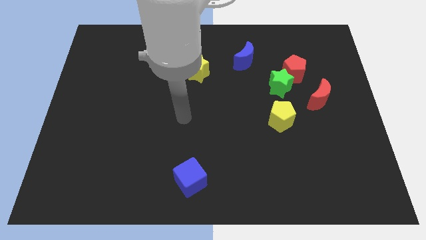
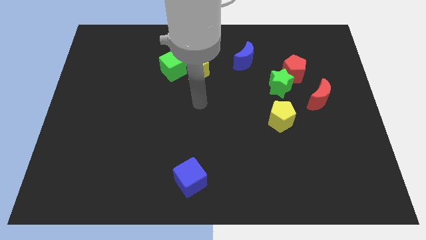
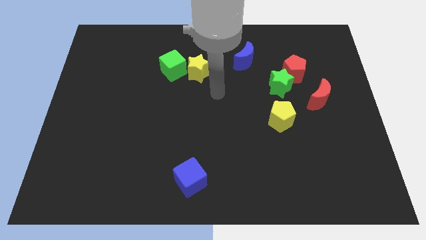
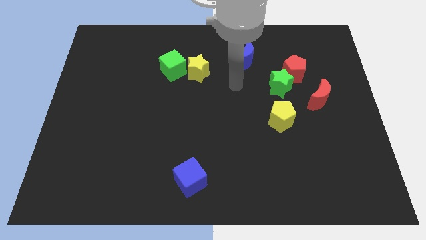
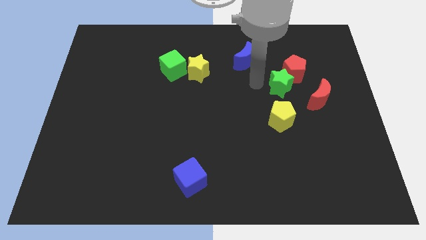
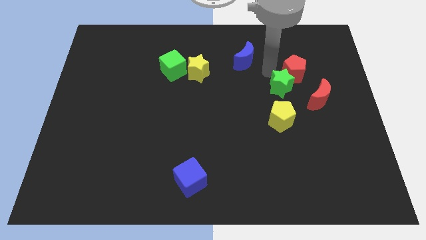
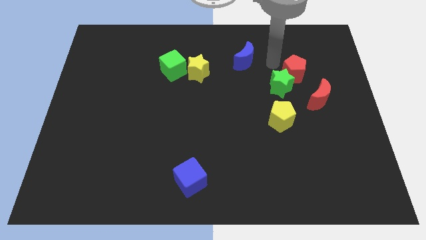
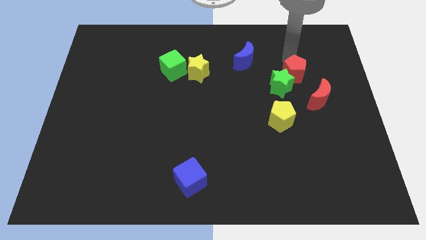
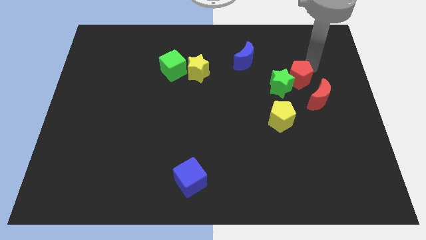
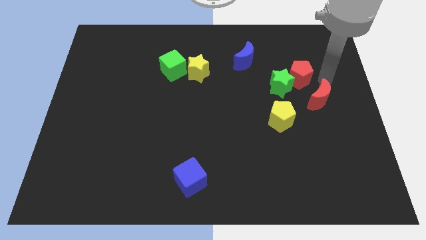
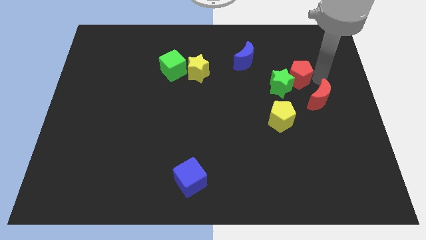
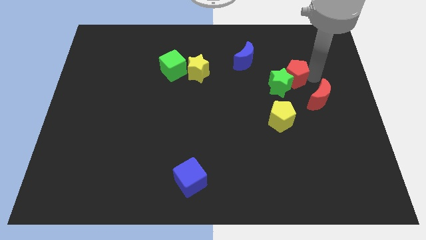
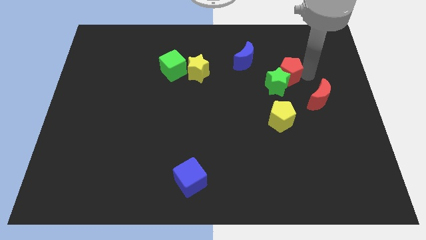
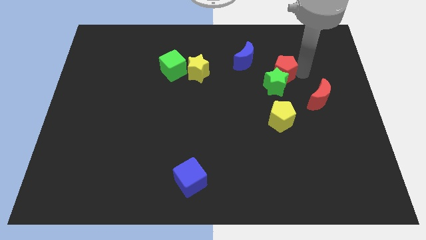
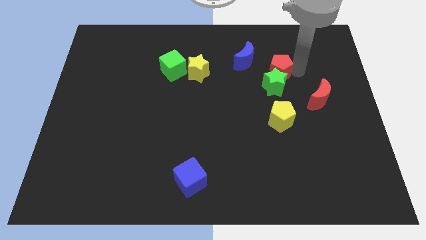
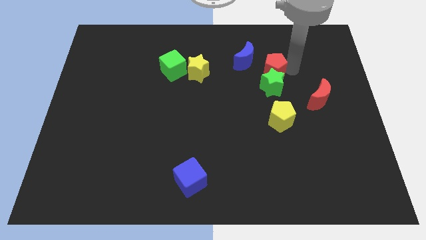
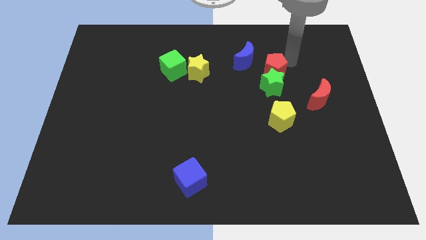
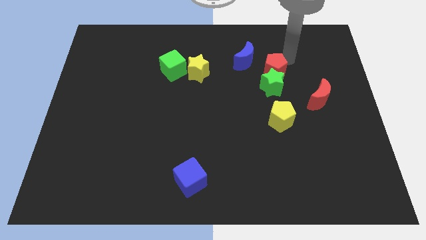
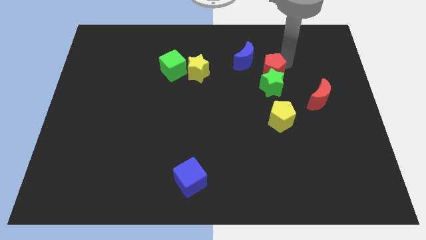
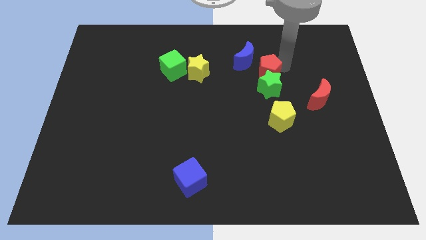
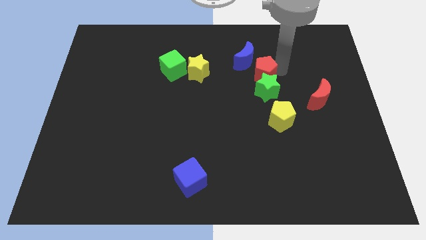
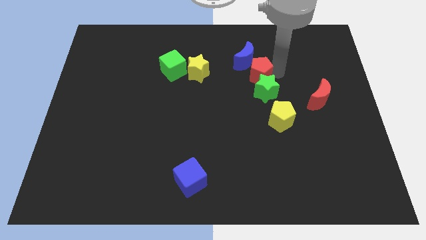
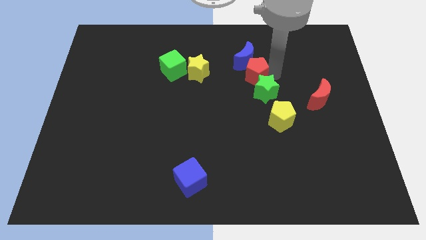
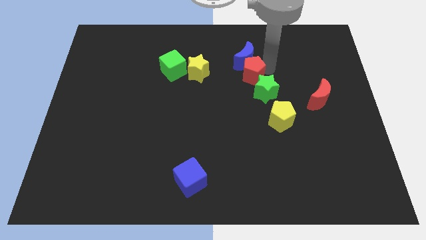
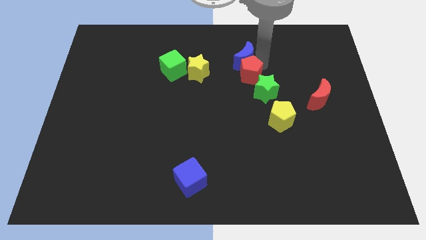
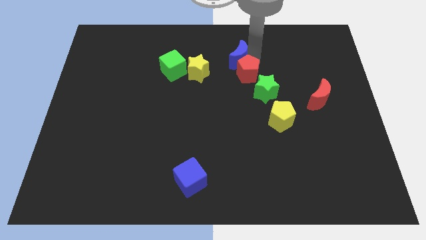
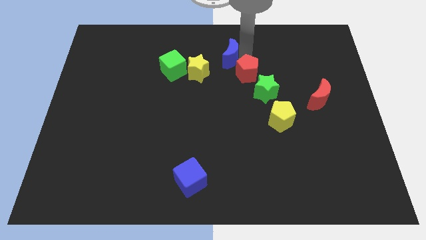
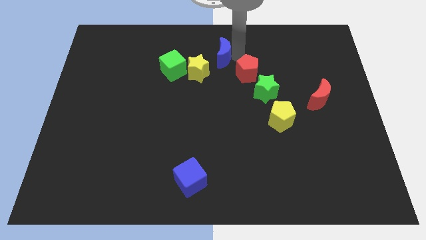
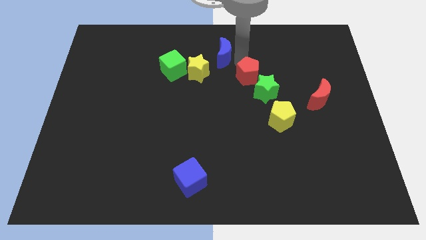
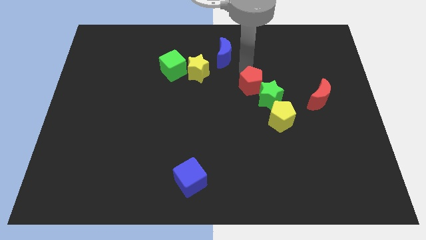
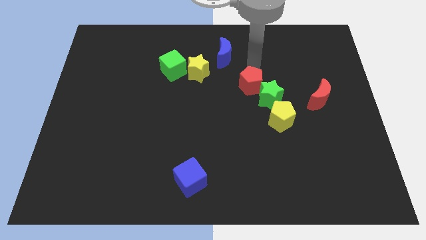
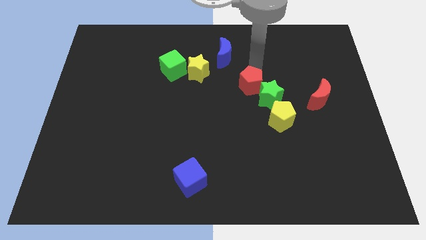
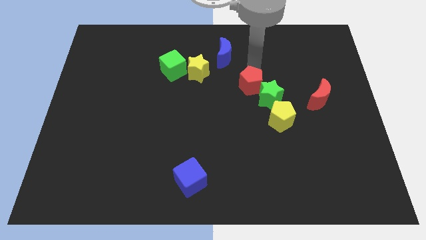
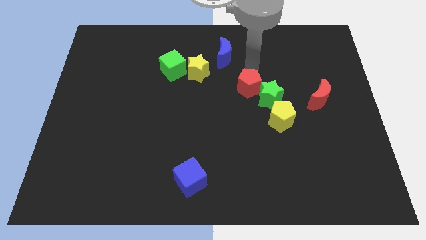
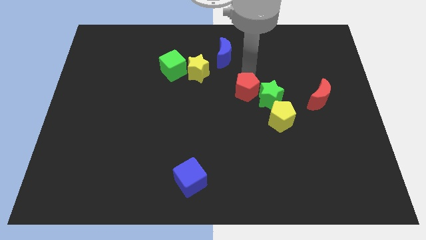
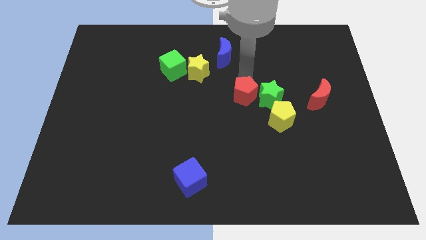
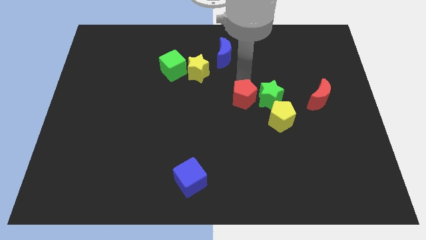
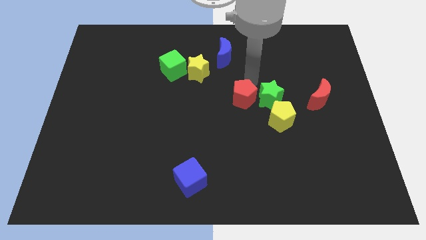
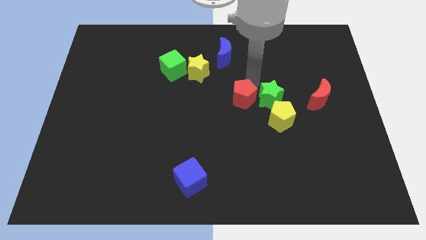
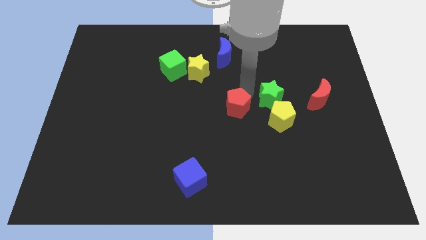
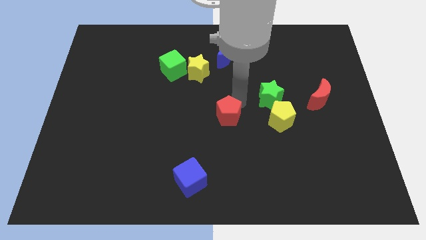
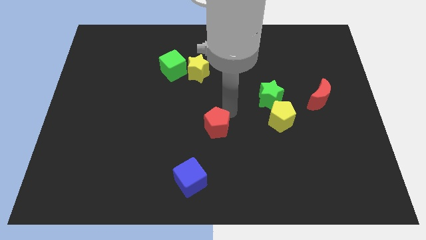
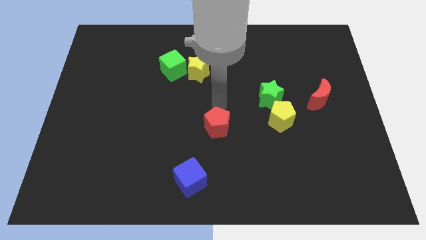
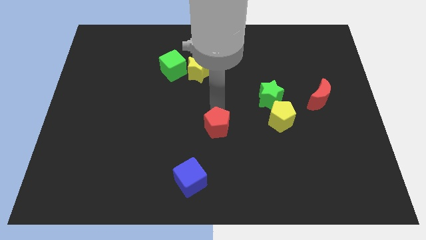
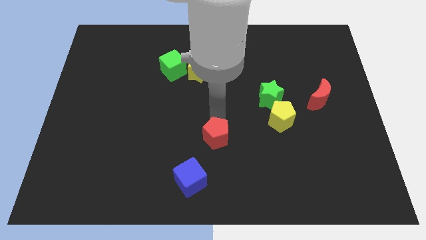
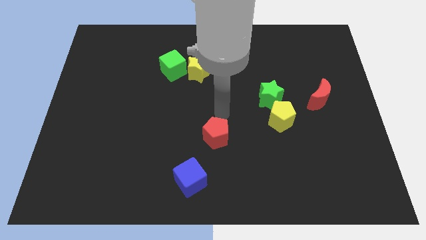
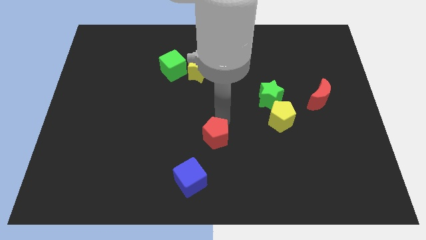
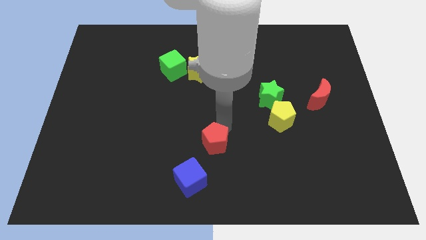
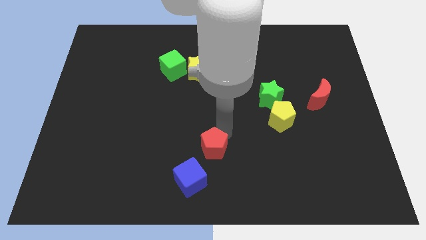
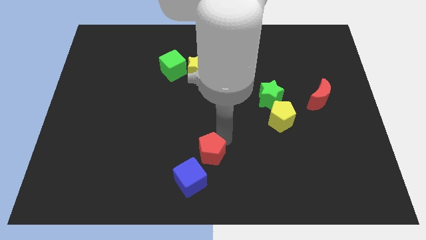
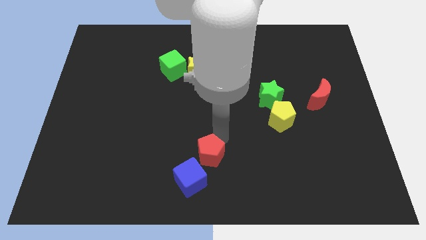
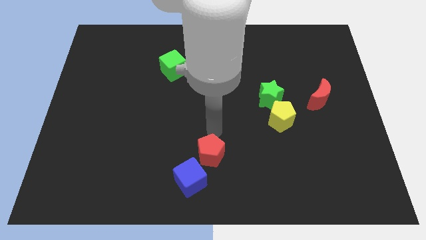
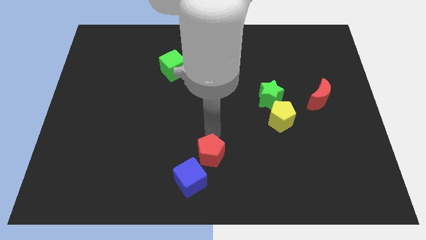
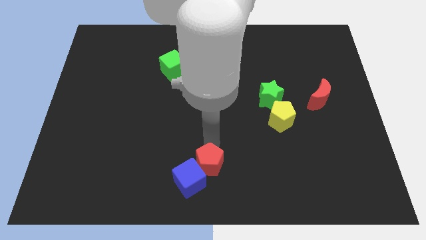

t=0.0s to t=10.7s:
move the red pentagon towards the blue cube

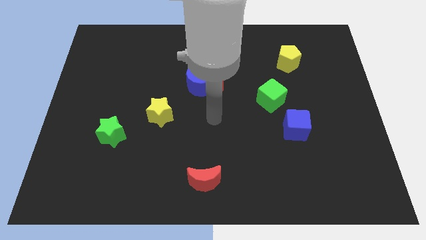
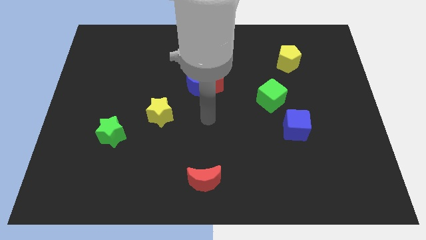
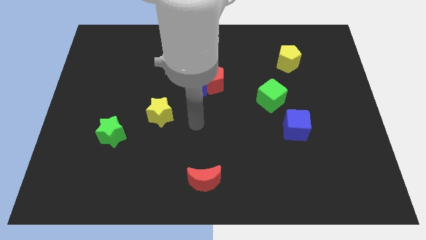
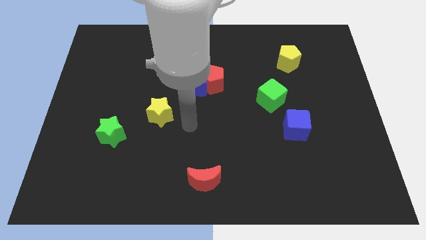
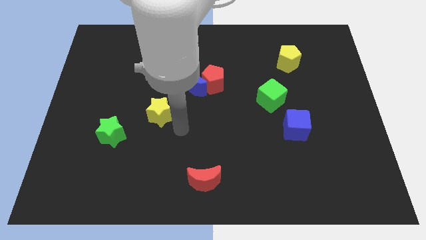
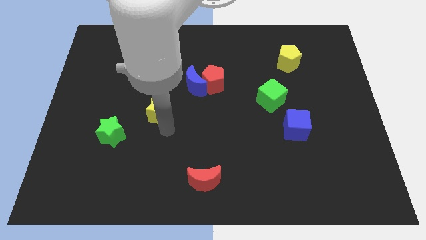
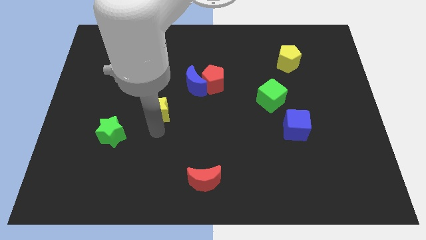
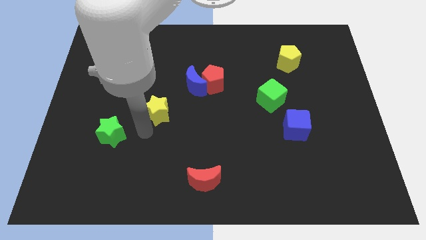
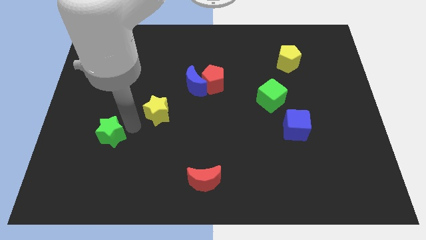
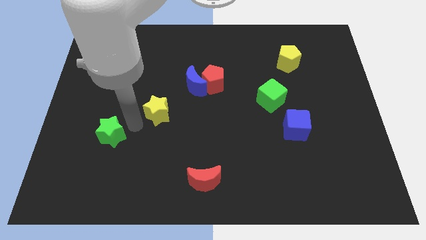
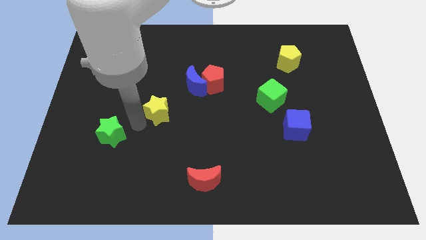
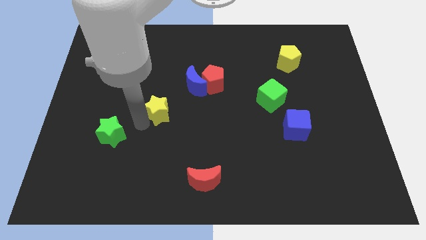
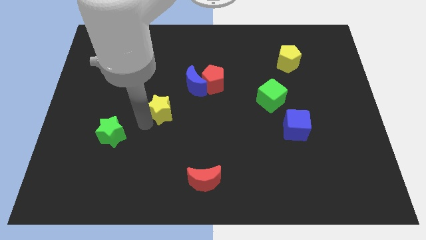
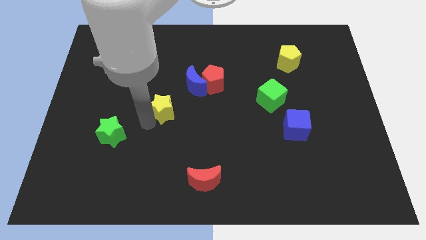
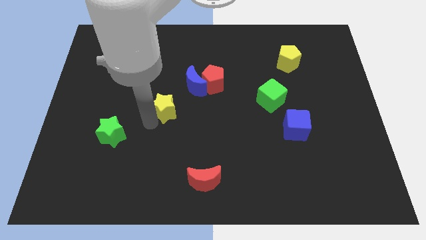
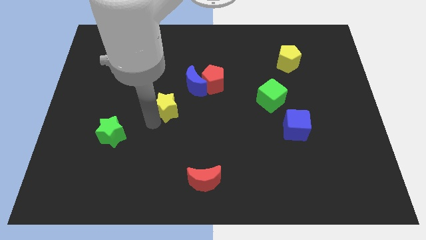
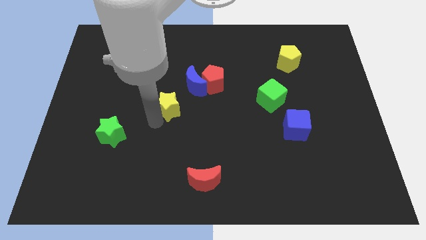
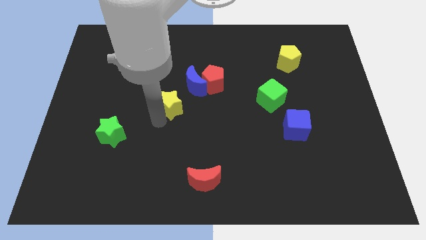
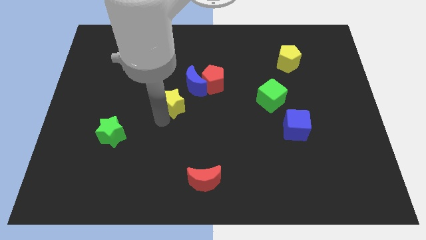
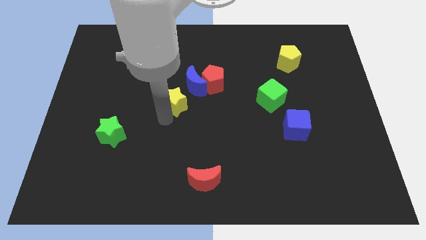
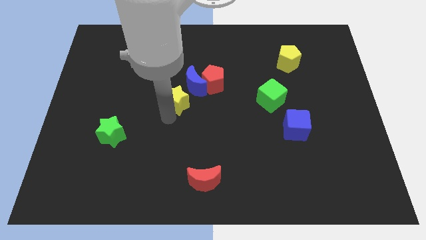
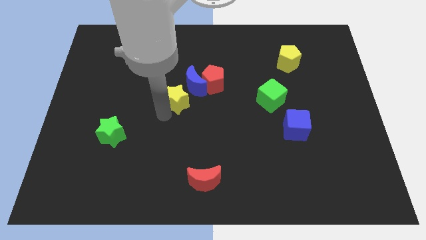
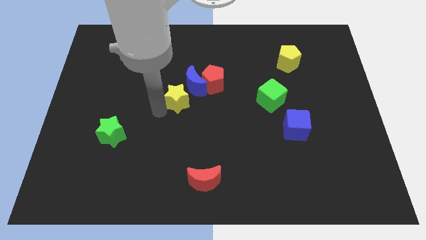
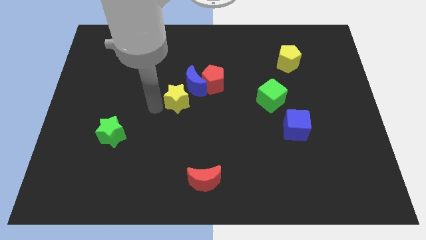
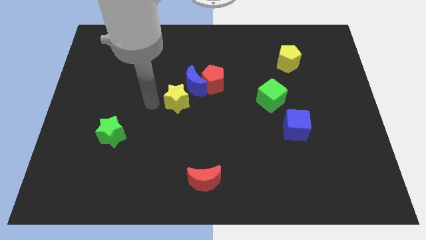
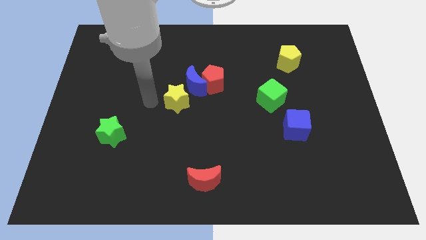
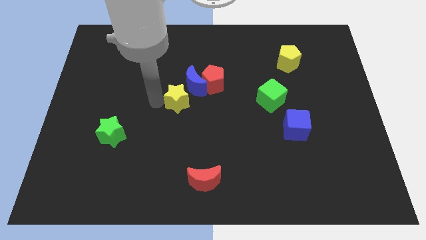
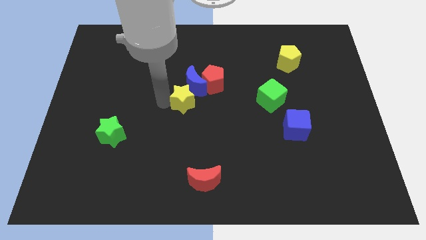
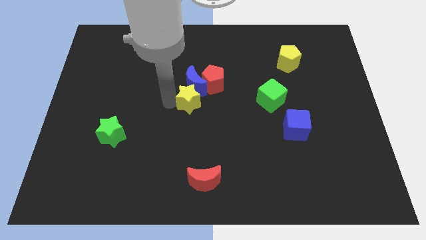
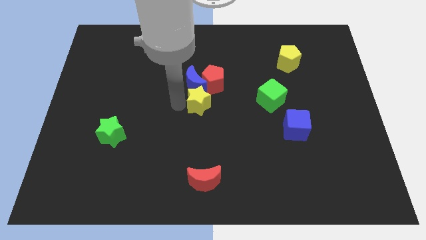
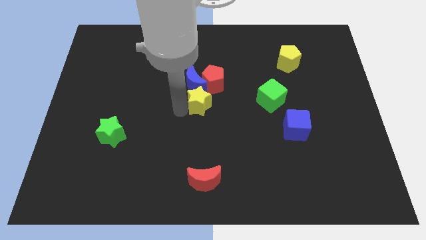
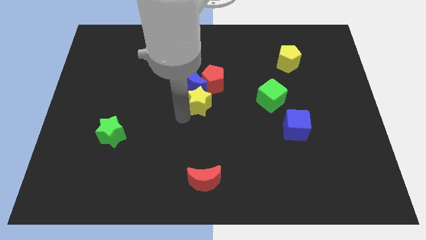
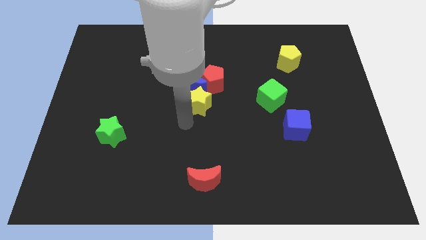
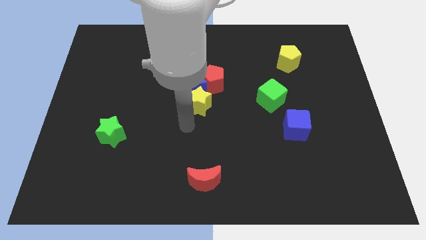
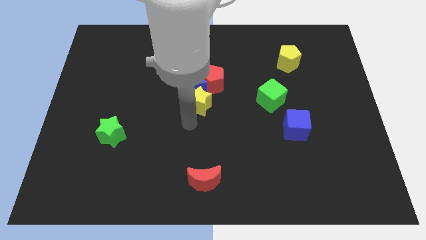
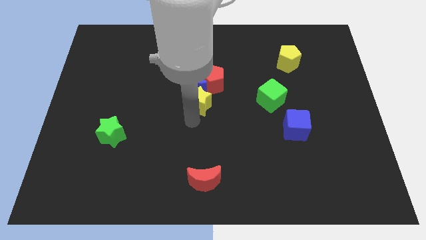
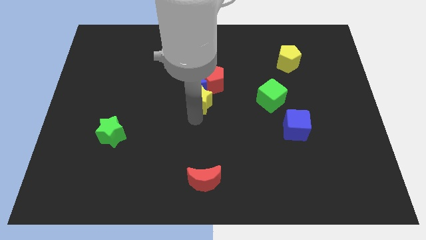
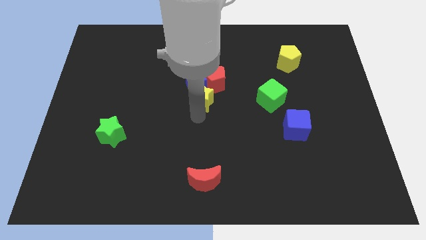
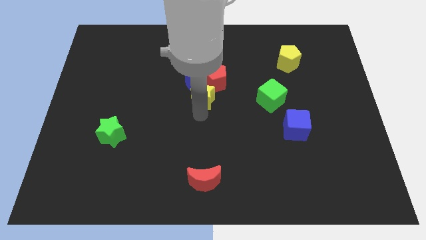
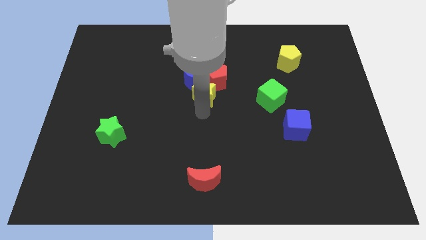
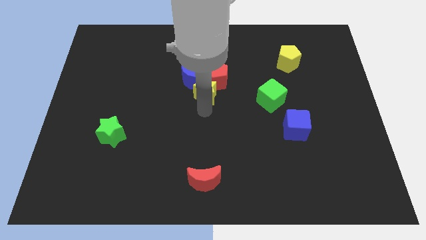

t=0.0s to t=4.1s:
put the yellow star to the red pentagon
